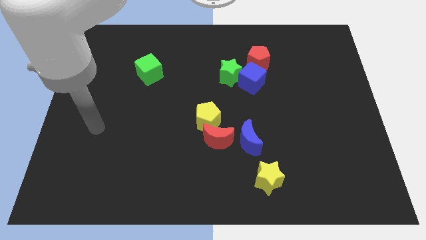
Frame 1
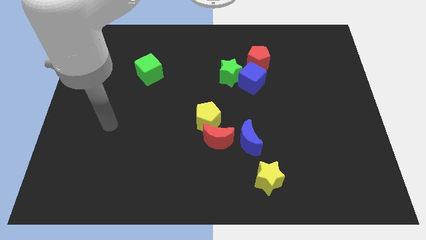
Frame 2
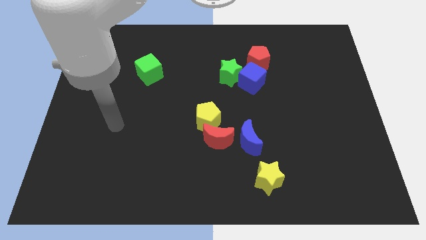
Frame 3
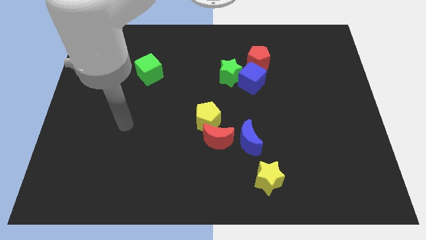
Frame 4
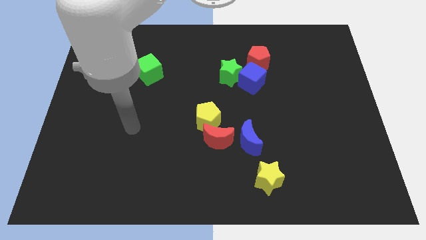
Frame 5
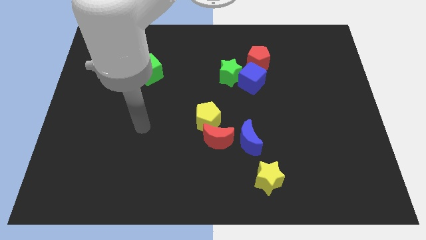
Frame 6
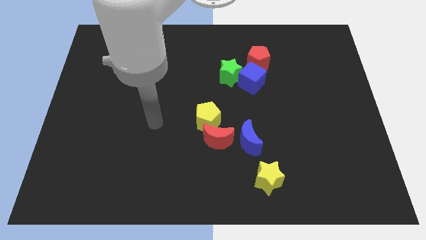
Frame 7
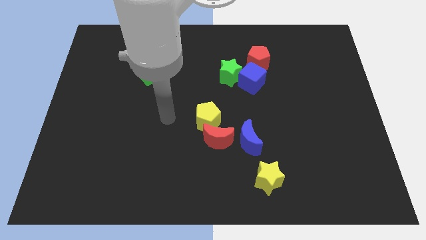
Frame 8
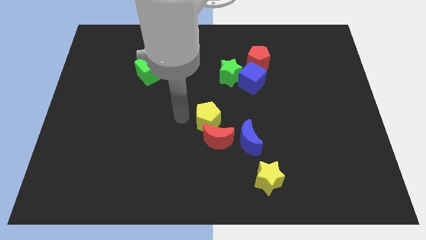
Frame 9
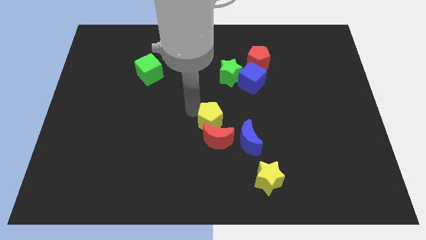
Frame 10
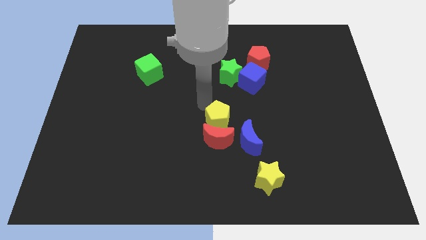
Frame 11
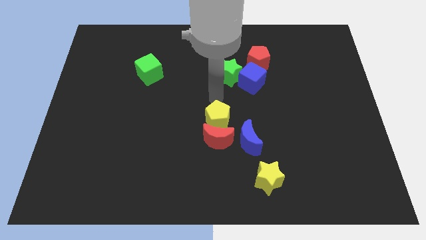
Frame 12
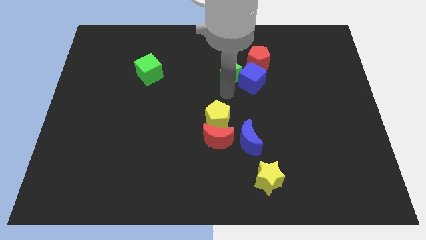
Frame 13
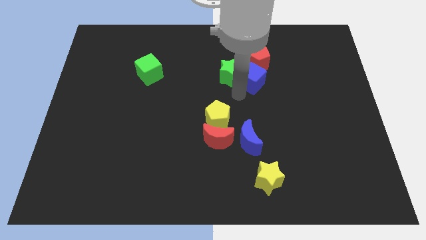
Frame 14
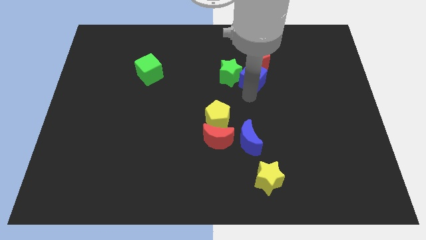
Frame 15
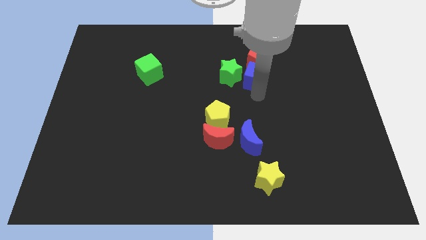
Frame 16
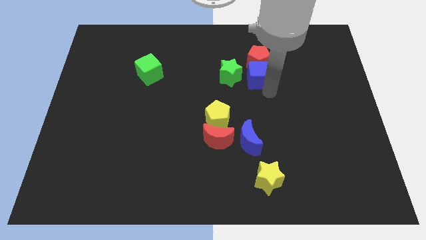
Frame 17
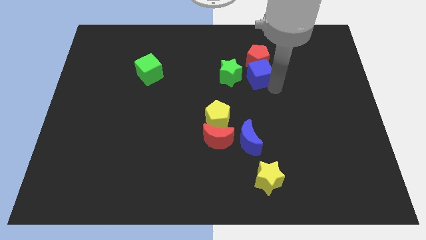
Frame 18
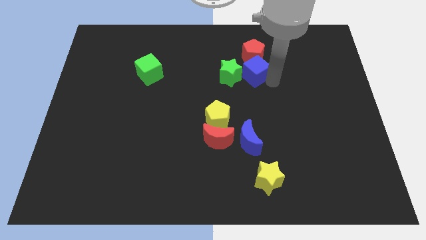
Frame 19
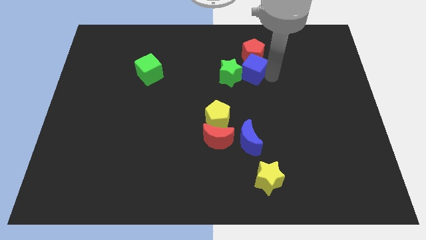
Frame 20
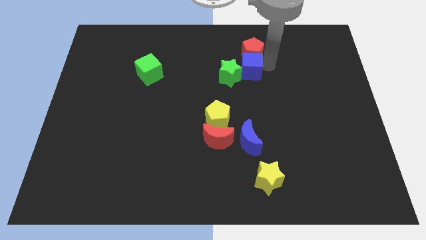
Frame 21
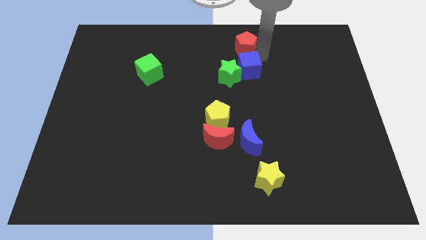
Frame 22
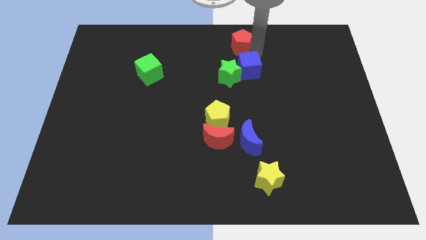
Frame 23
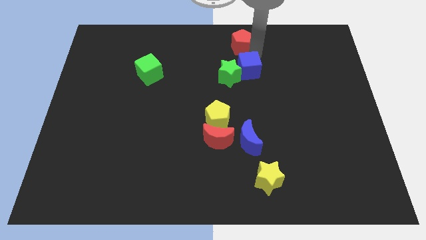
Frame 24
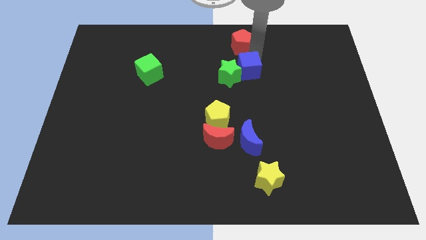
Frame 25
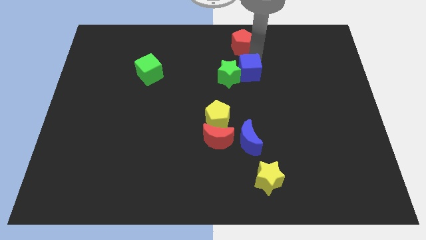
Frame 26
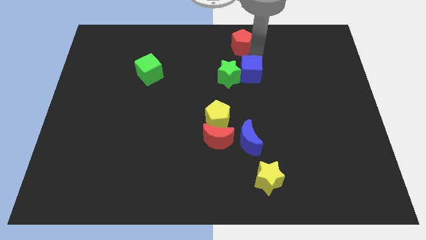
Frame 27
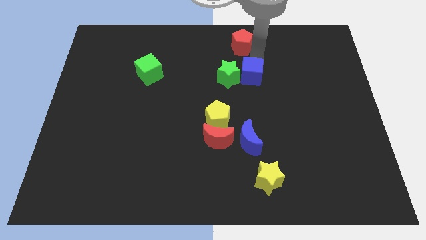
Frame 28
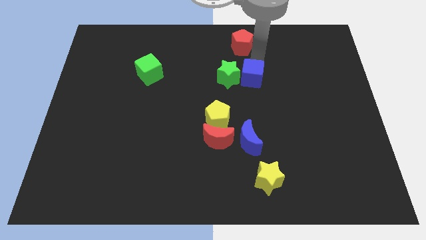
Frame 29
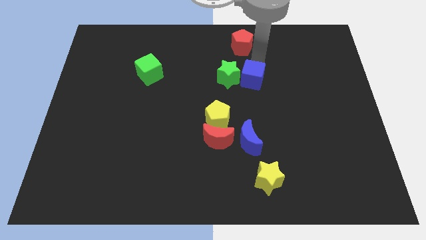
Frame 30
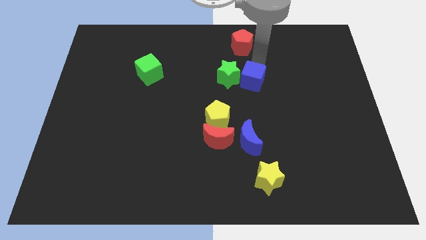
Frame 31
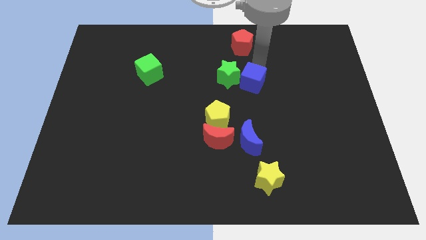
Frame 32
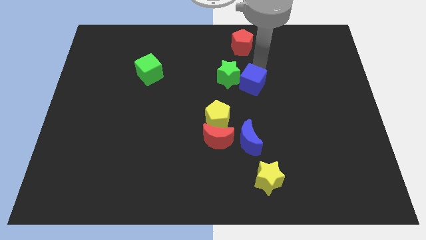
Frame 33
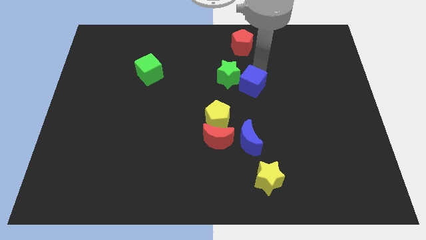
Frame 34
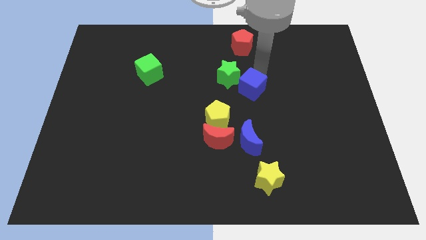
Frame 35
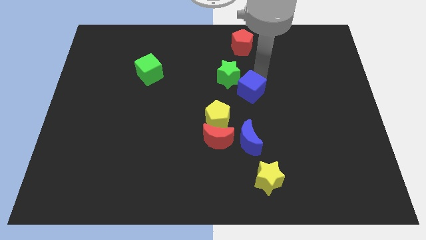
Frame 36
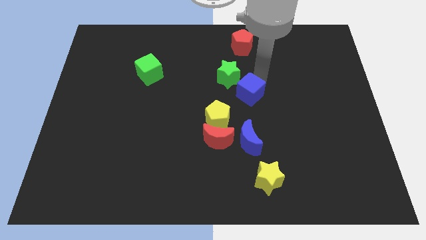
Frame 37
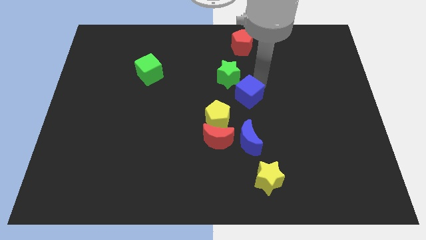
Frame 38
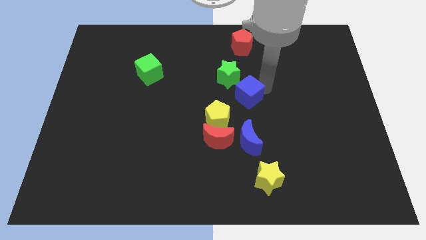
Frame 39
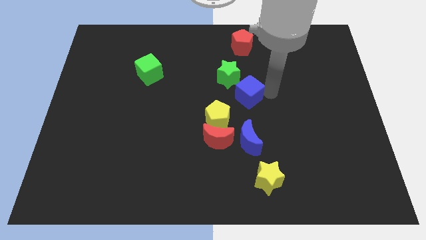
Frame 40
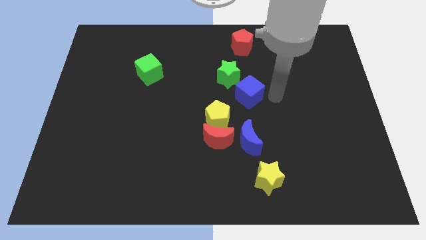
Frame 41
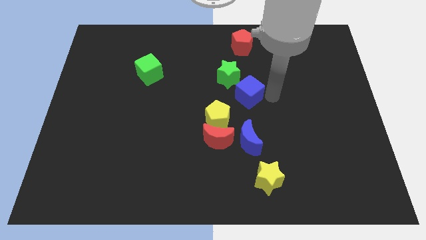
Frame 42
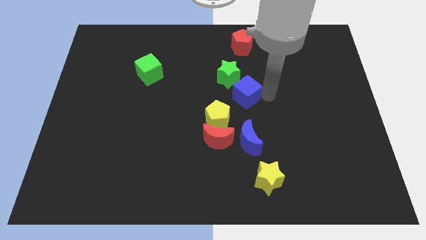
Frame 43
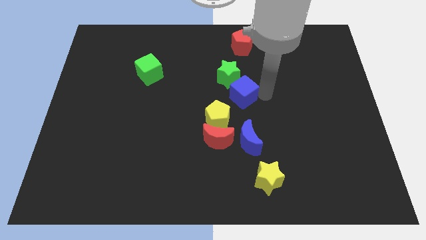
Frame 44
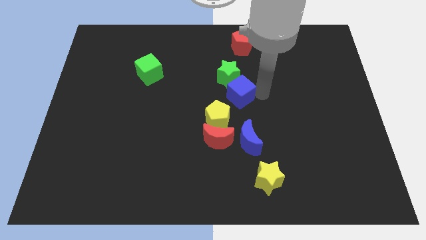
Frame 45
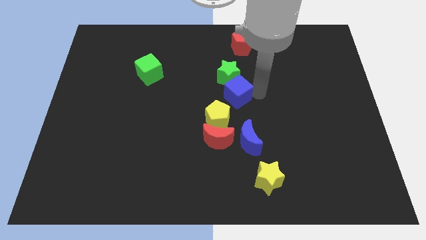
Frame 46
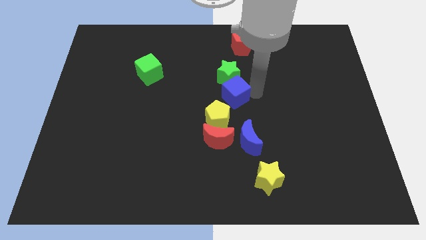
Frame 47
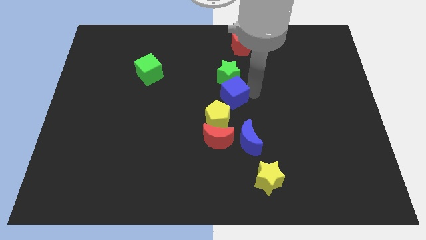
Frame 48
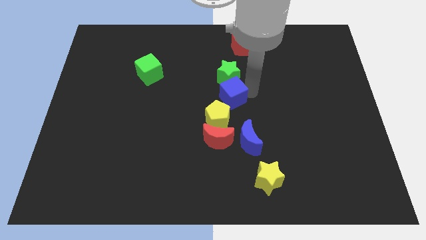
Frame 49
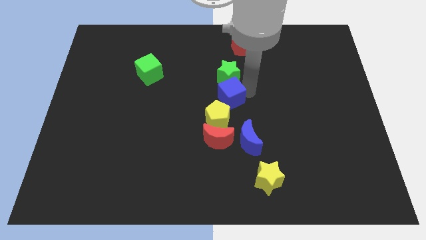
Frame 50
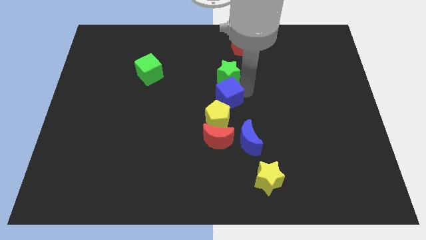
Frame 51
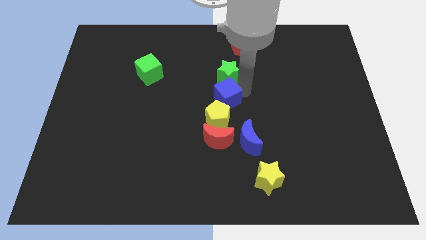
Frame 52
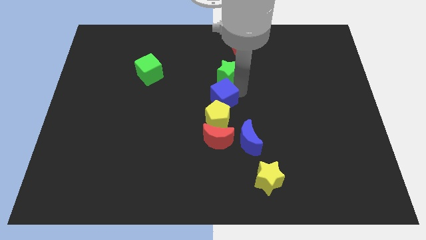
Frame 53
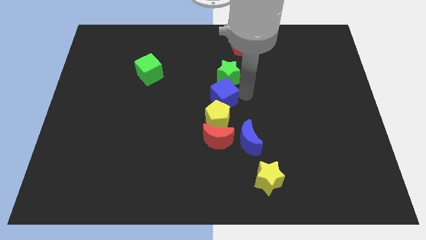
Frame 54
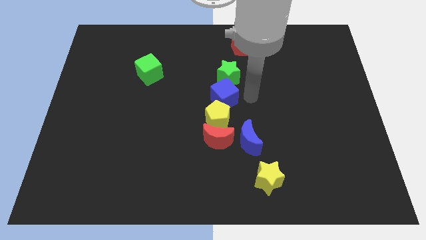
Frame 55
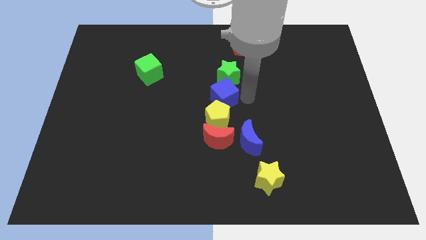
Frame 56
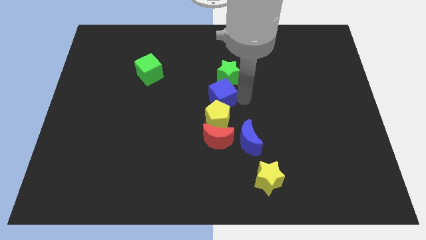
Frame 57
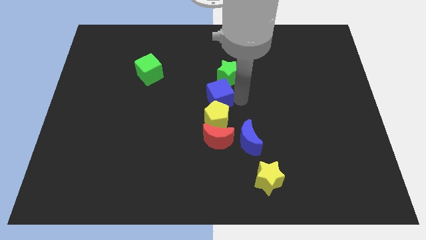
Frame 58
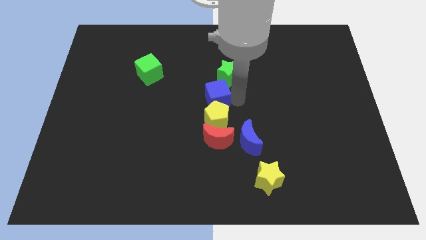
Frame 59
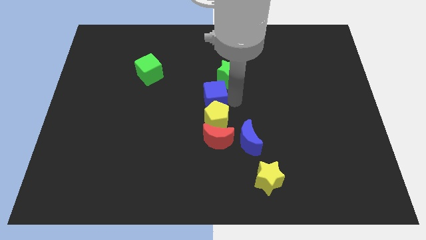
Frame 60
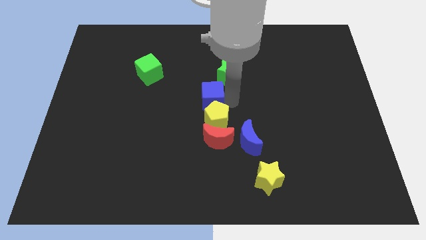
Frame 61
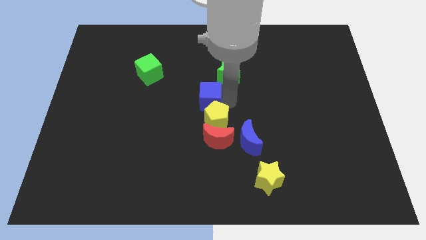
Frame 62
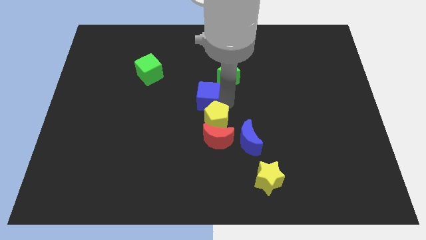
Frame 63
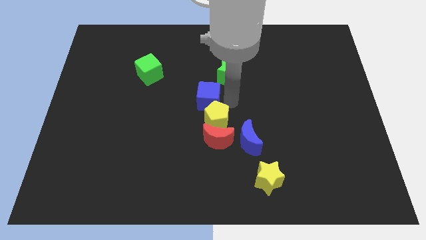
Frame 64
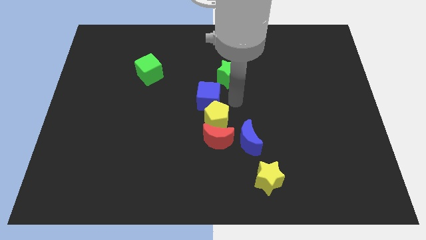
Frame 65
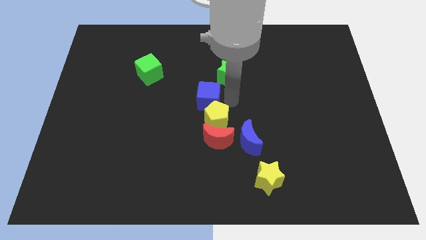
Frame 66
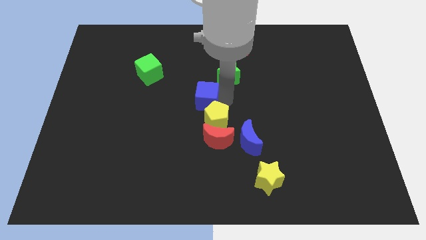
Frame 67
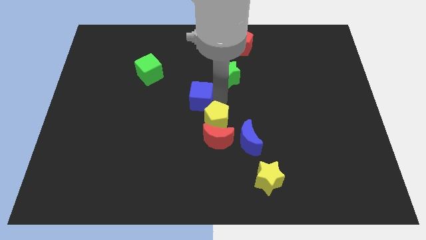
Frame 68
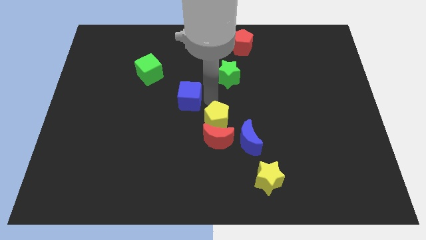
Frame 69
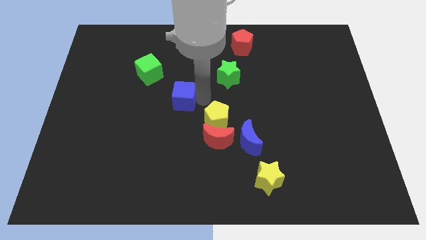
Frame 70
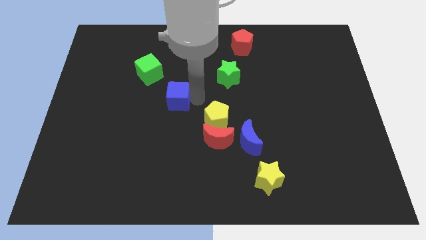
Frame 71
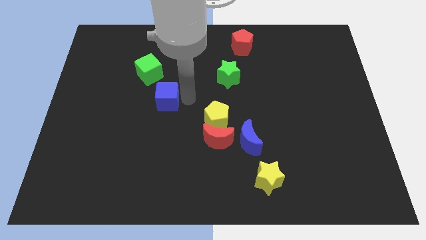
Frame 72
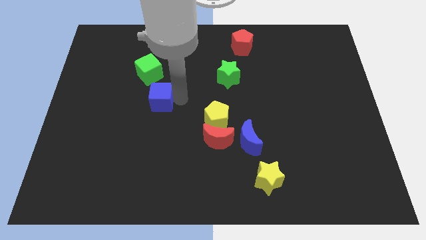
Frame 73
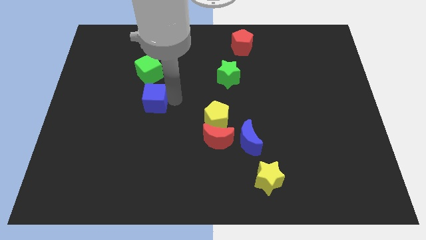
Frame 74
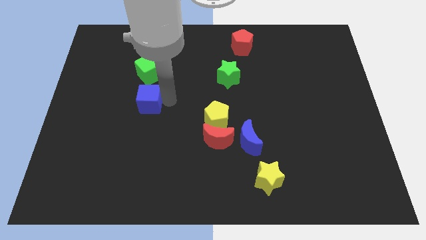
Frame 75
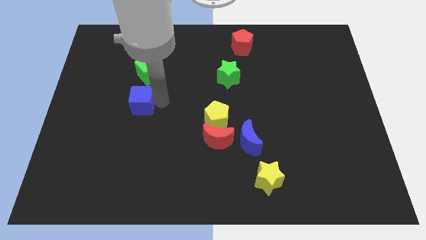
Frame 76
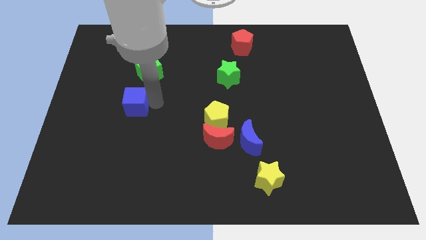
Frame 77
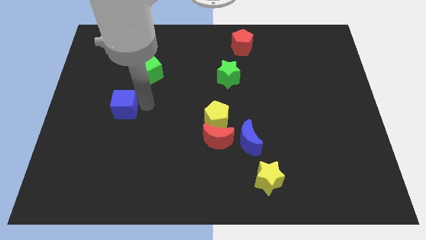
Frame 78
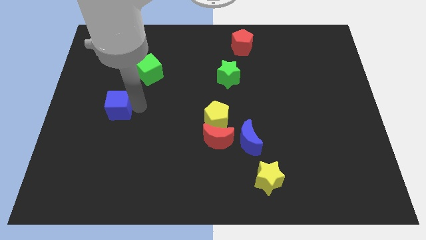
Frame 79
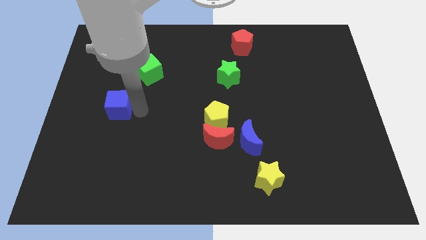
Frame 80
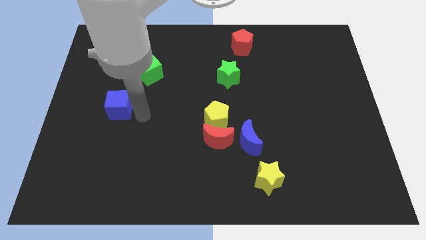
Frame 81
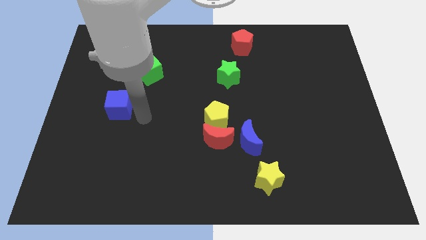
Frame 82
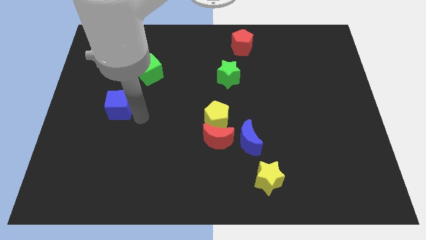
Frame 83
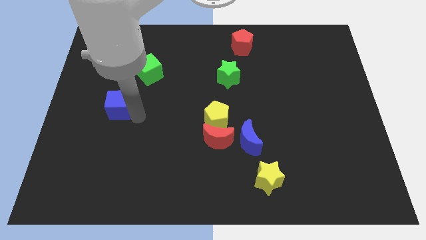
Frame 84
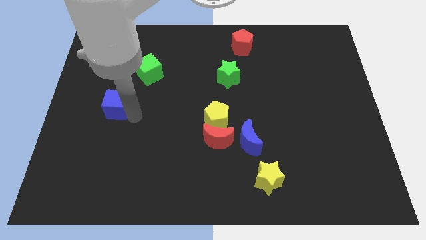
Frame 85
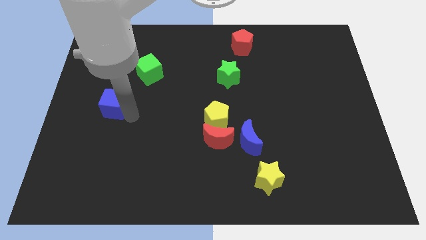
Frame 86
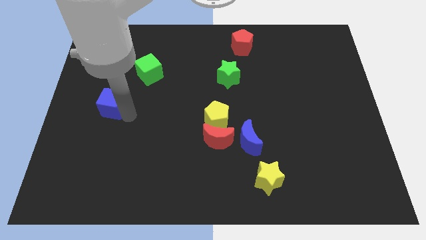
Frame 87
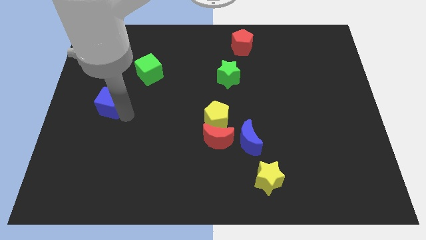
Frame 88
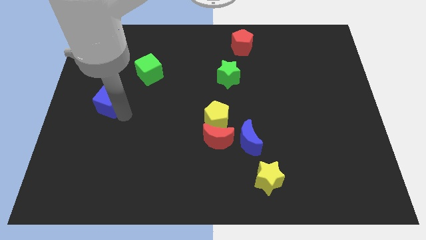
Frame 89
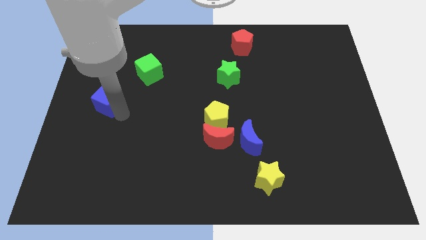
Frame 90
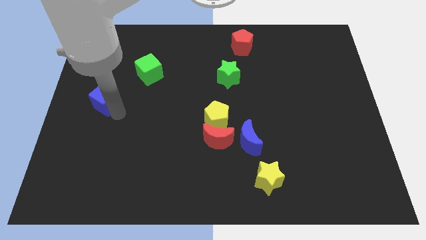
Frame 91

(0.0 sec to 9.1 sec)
slide the blue cube to the center left
